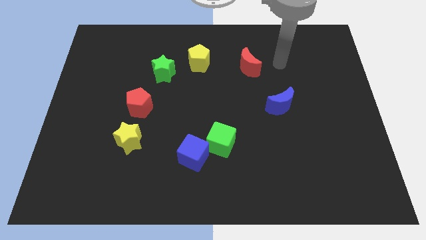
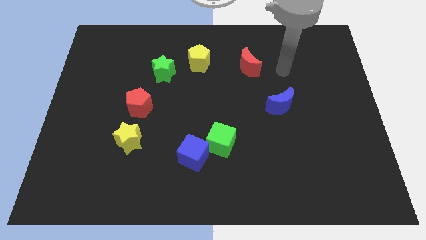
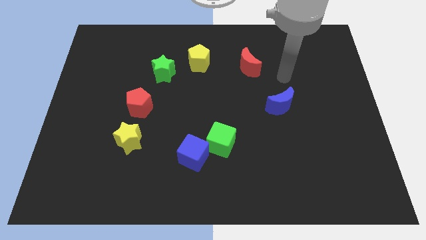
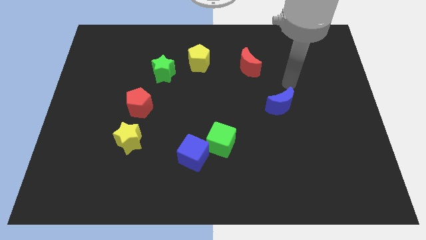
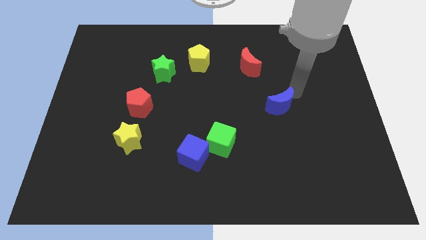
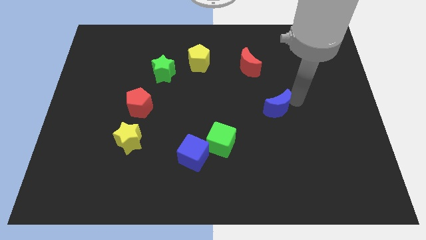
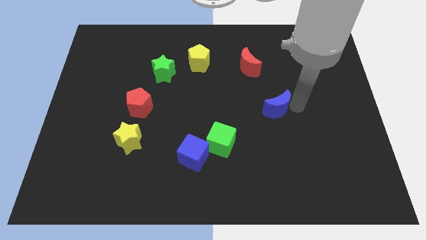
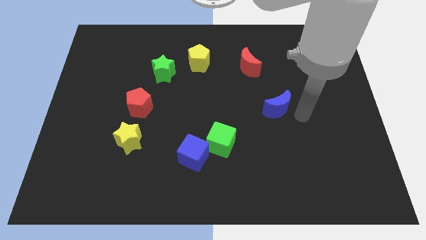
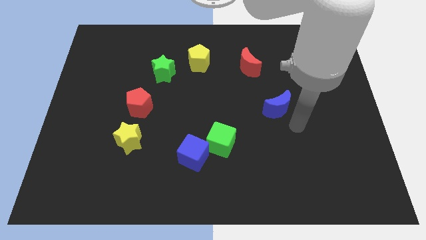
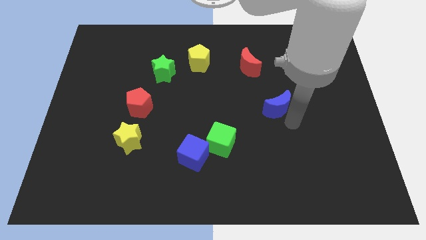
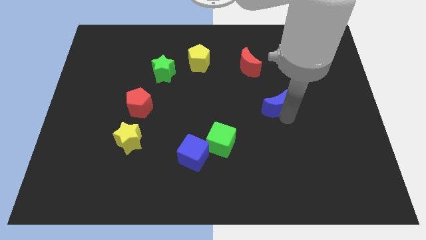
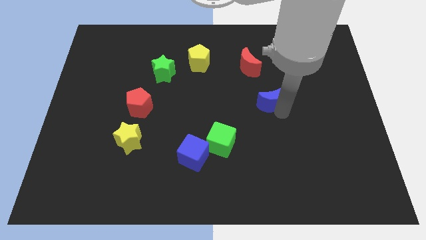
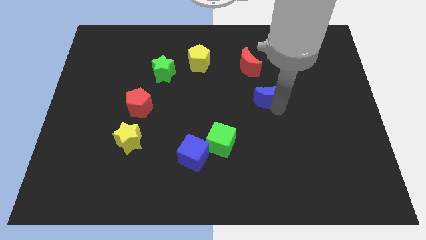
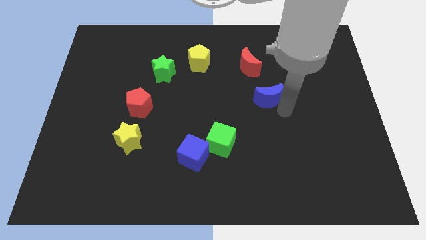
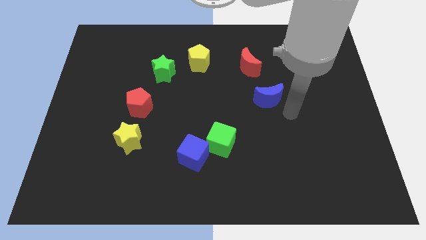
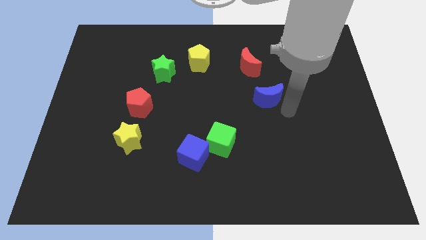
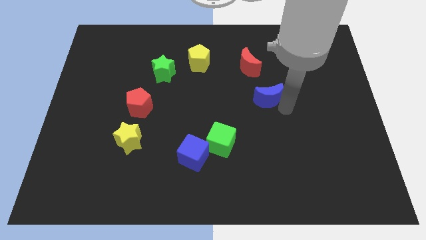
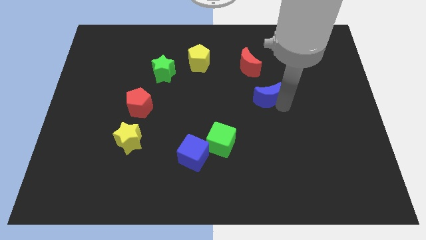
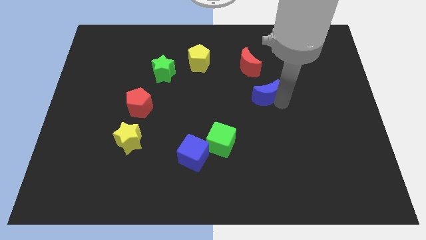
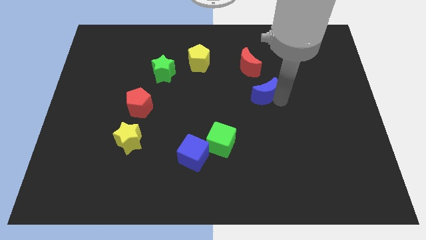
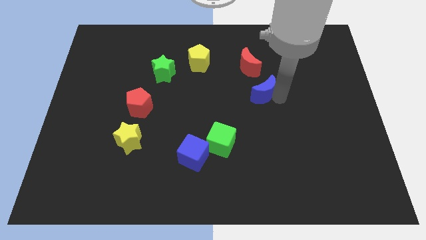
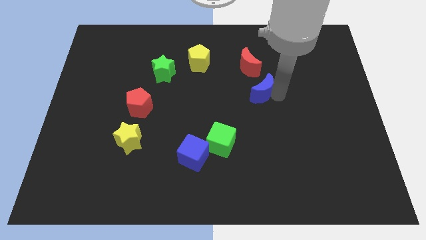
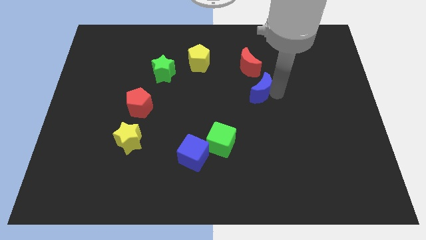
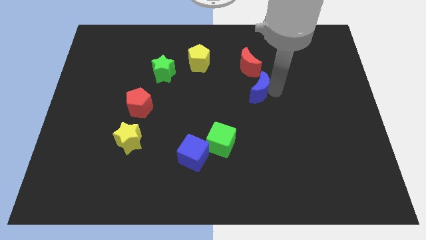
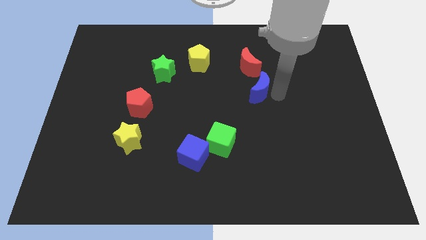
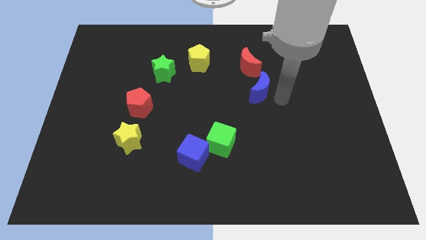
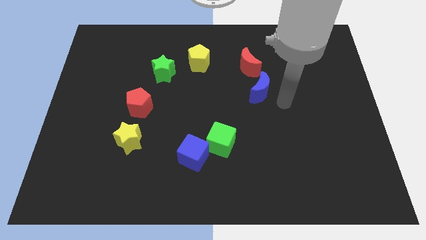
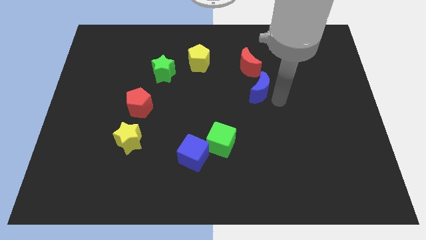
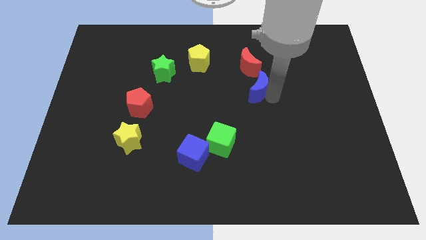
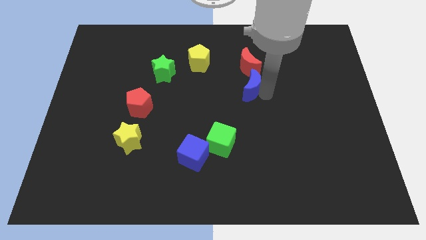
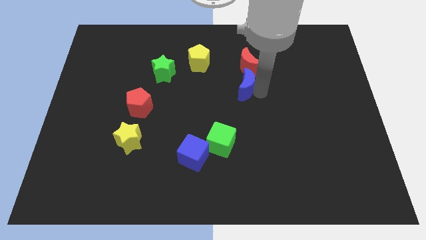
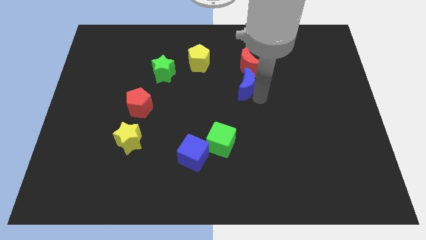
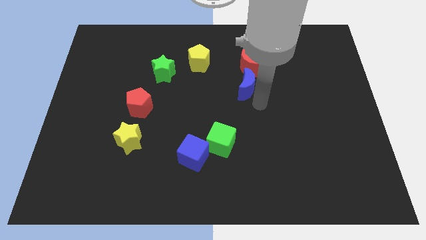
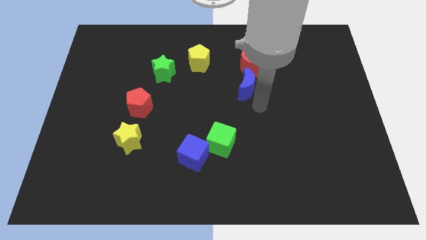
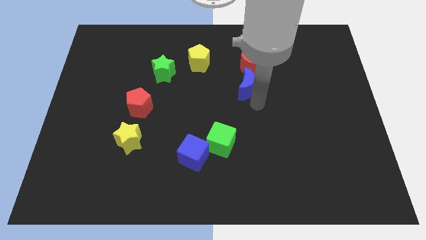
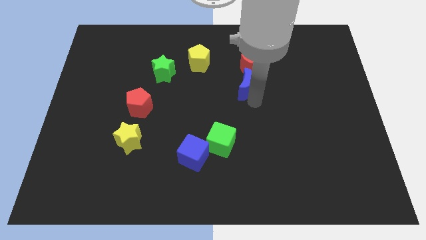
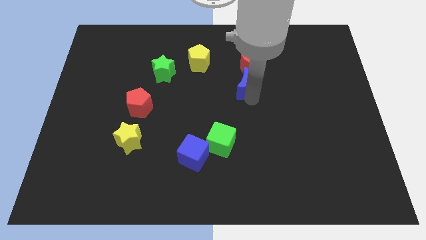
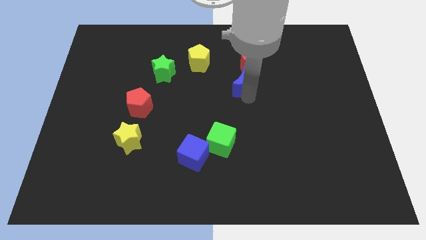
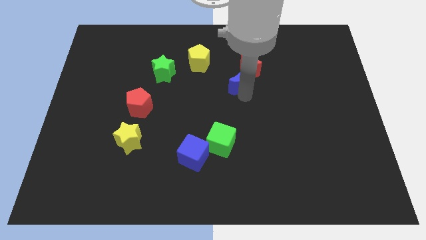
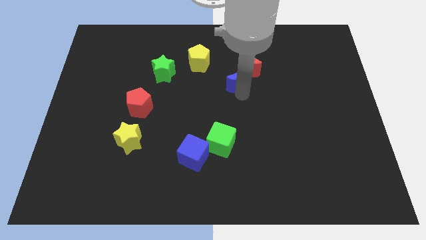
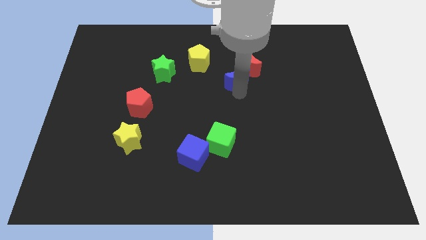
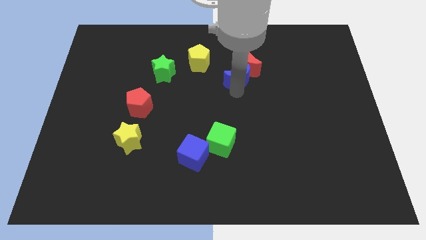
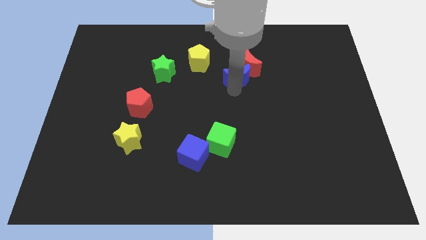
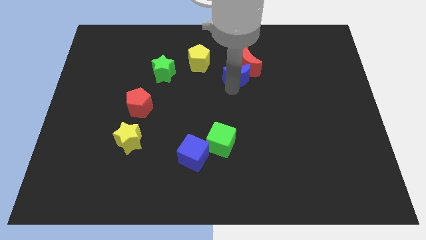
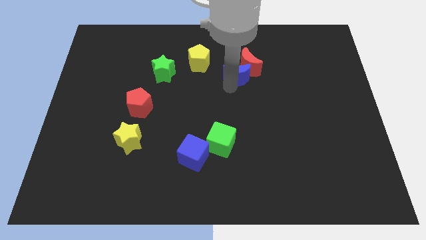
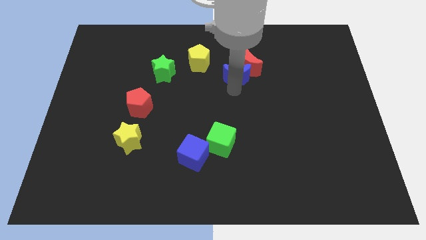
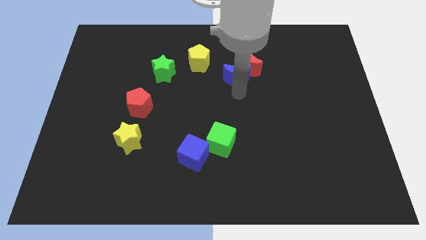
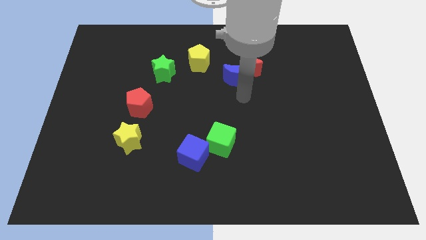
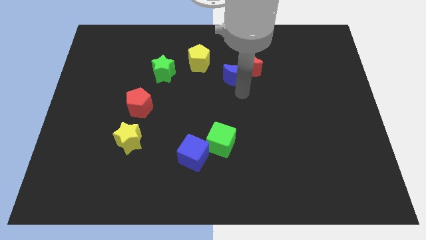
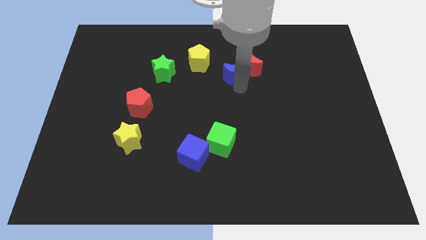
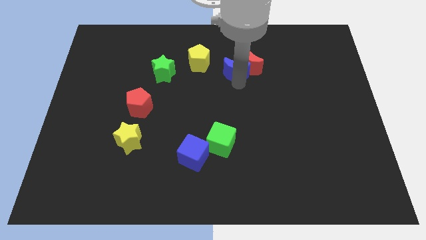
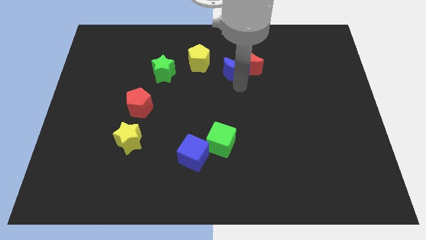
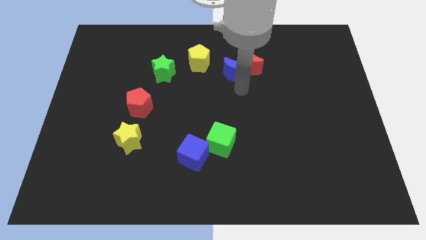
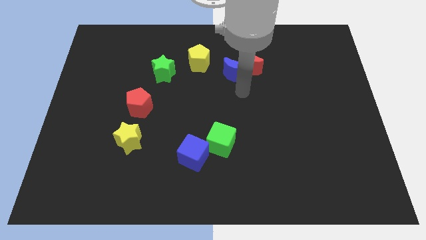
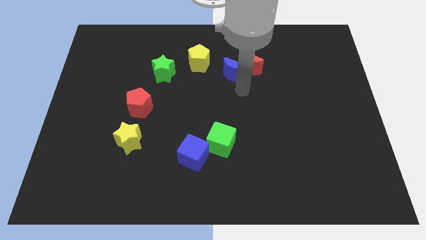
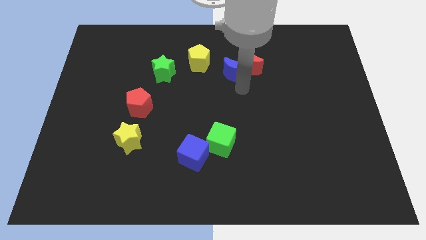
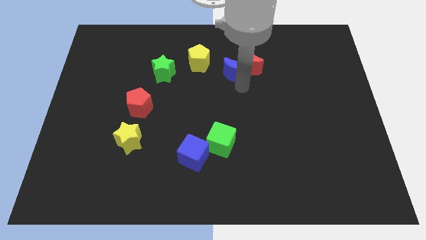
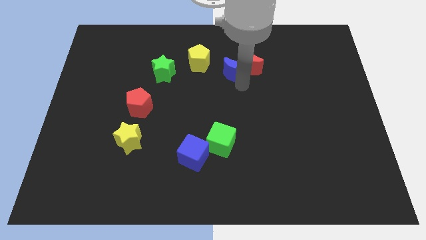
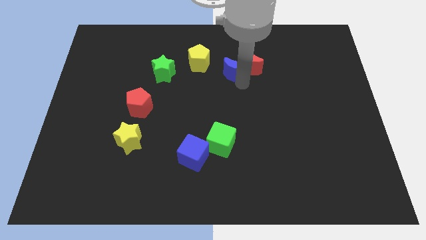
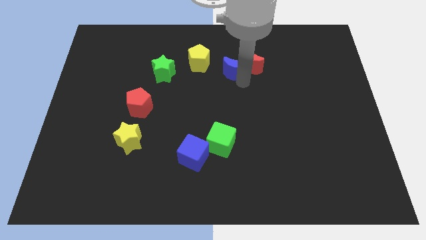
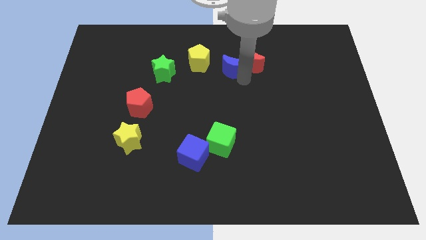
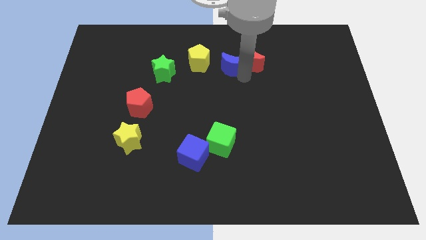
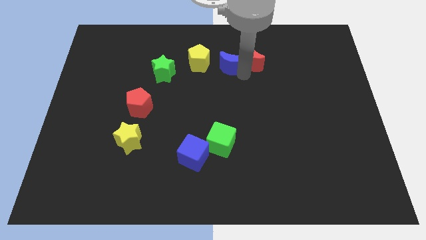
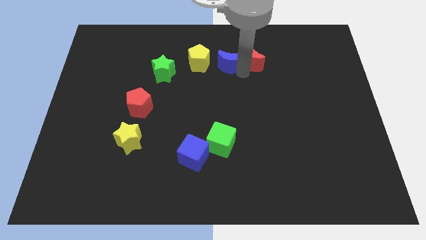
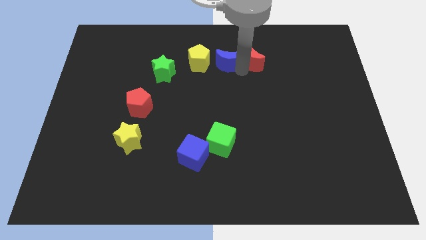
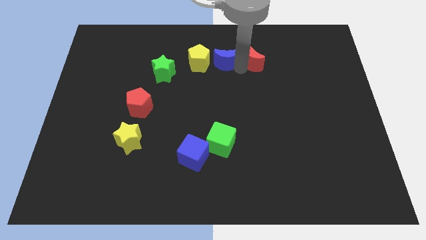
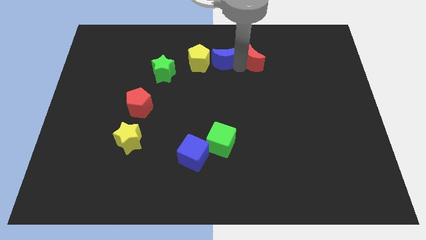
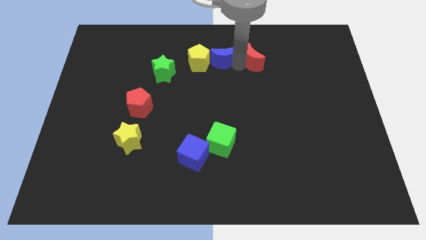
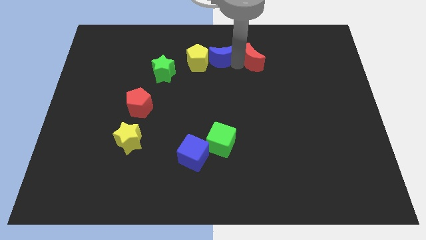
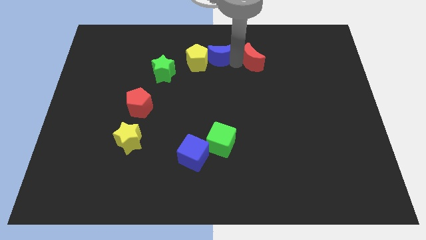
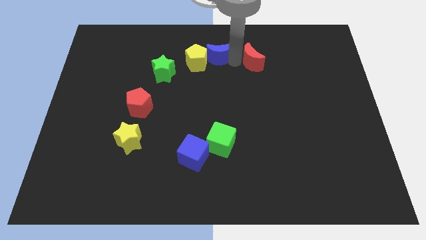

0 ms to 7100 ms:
slide the blue moon to the towards your base

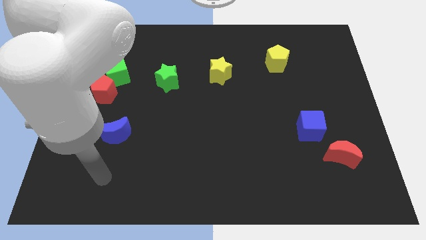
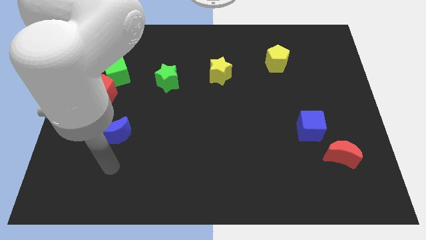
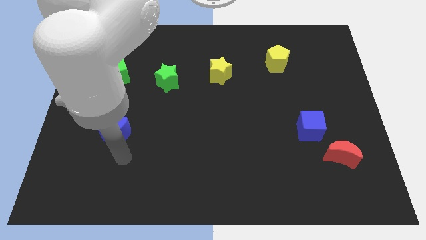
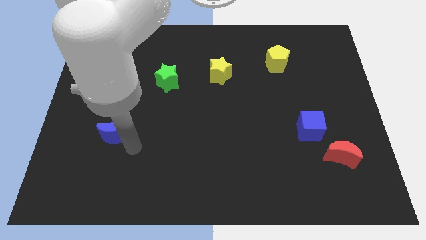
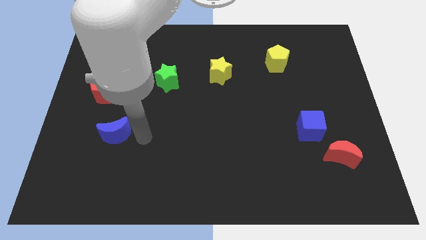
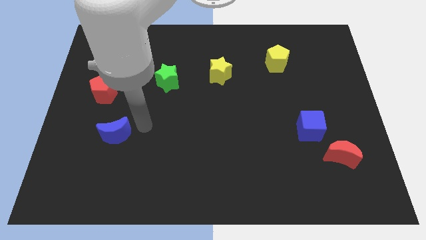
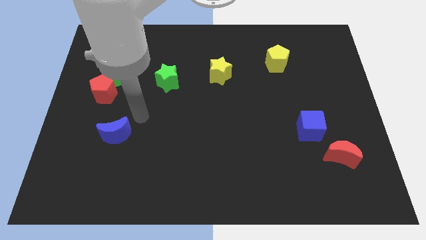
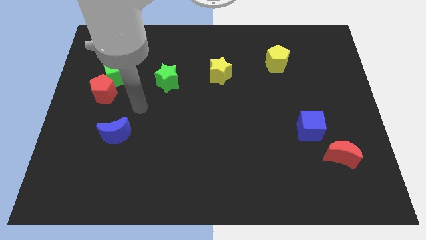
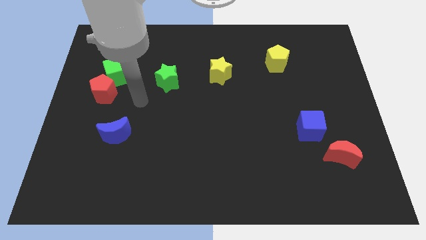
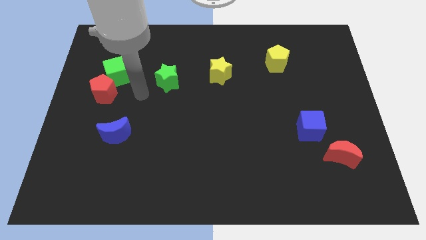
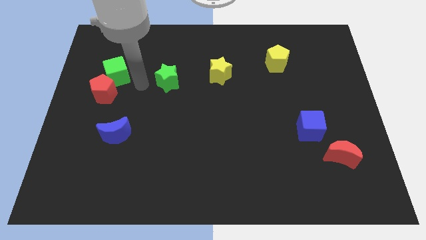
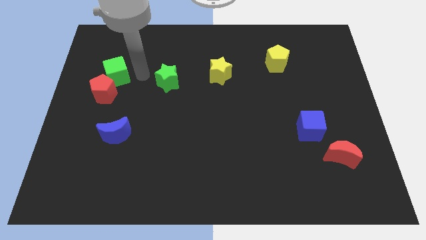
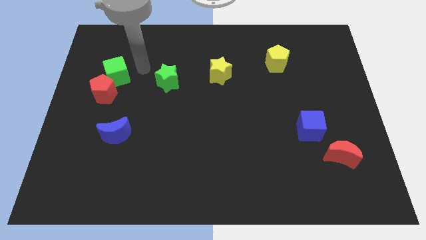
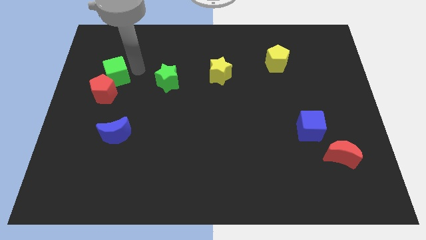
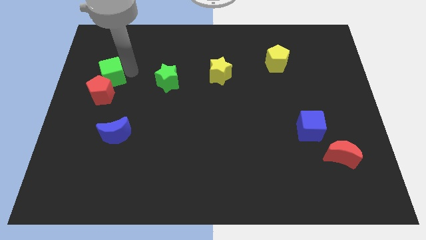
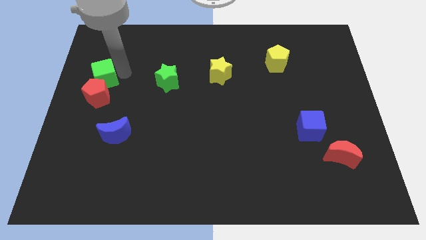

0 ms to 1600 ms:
slide the green cube to the center left
